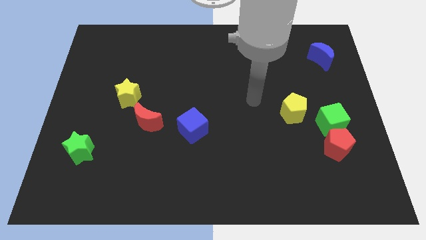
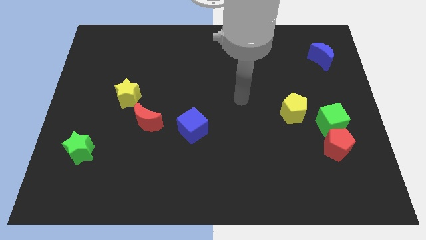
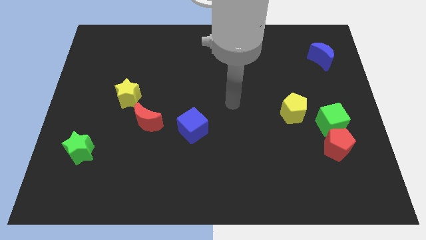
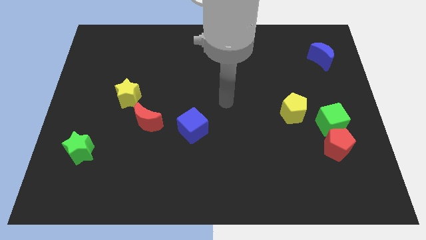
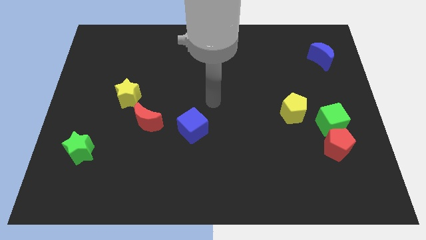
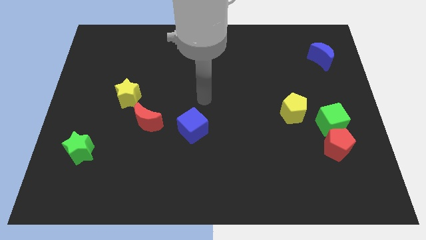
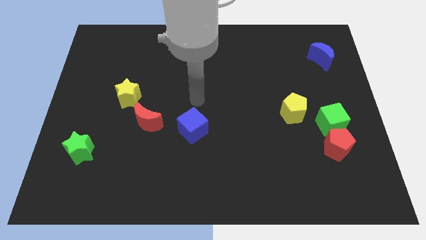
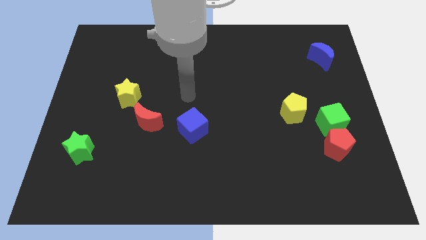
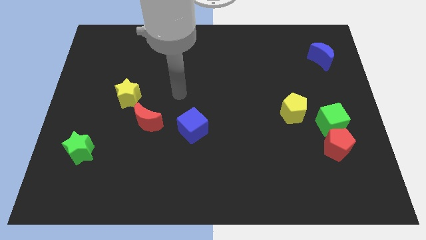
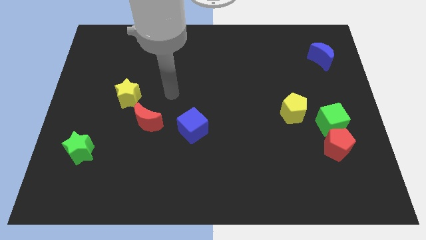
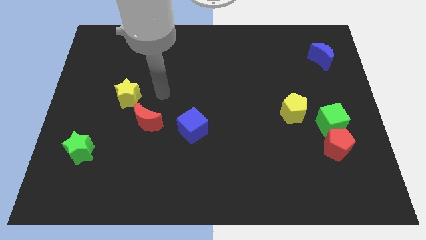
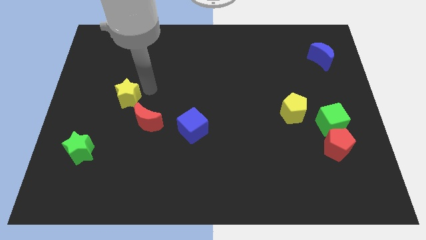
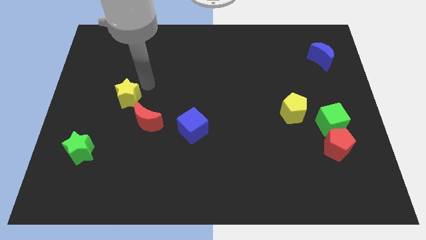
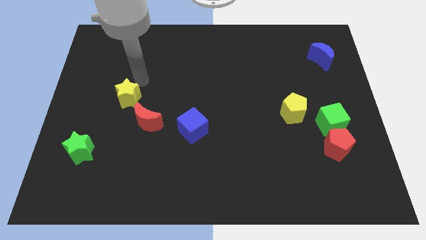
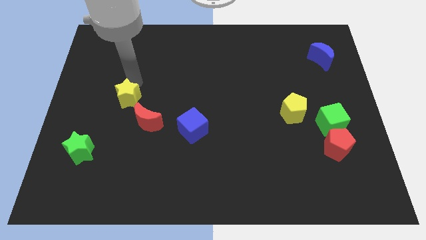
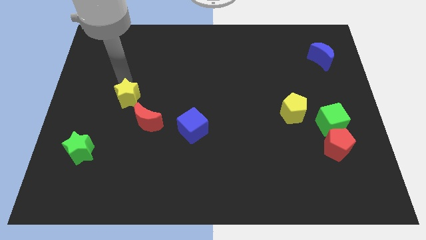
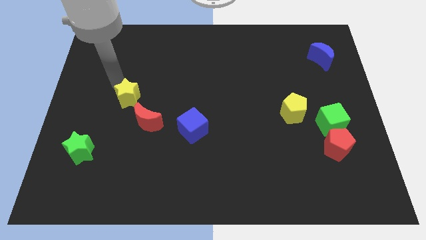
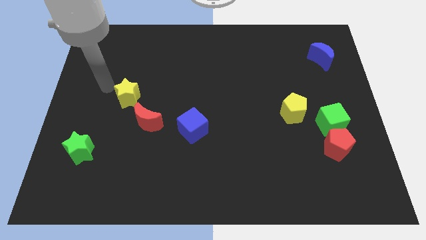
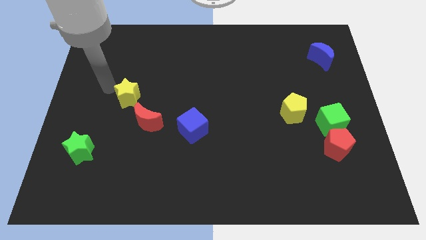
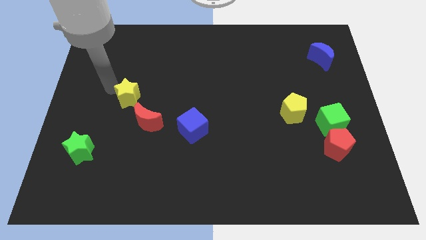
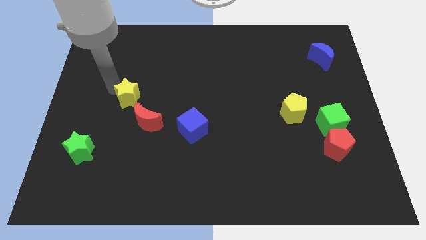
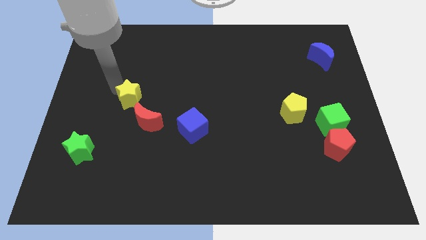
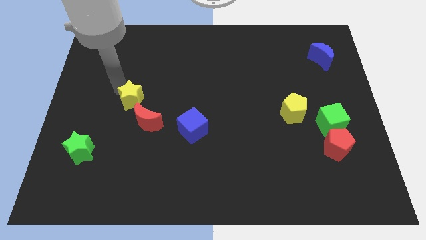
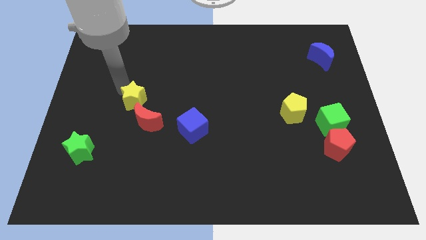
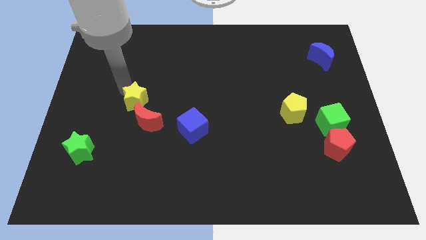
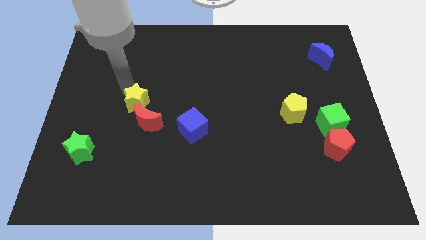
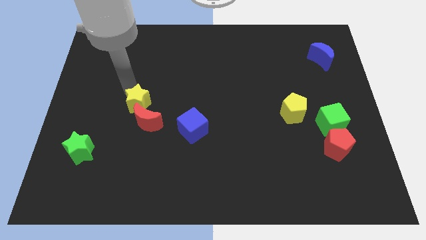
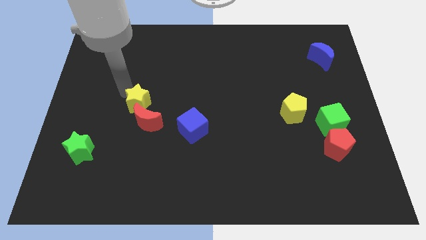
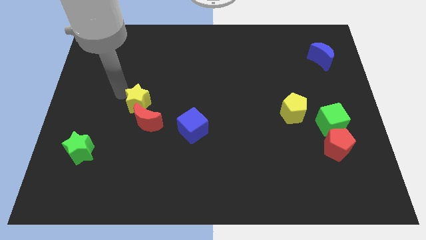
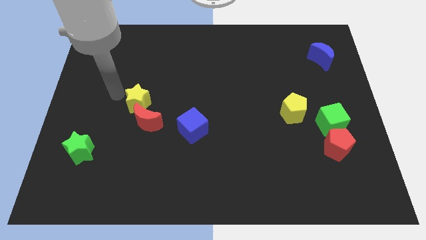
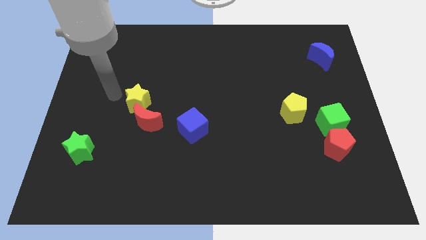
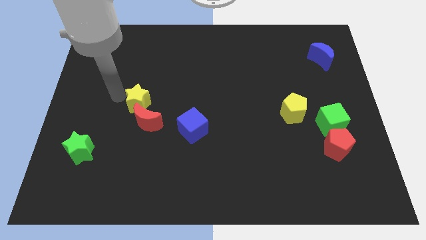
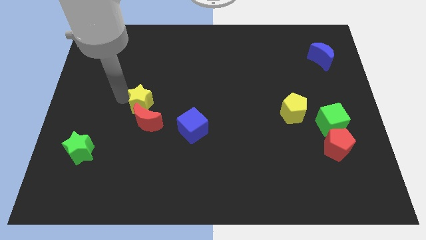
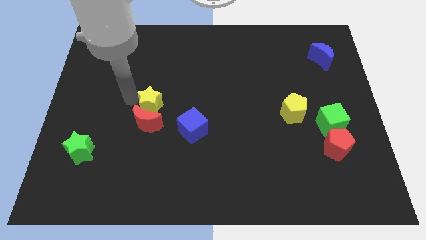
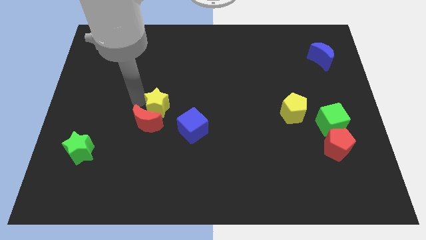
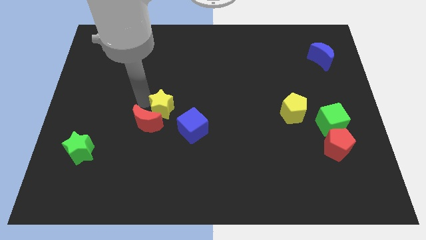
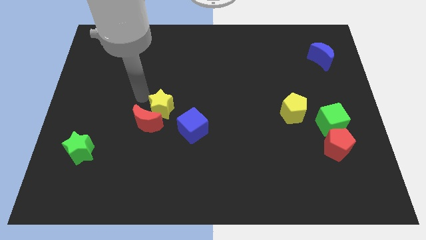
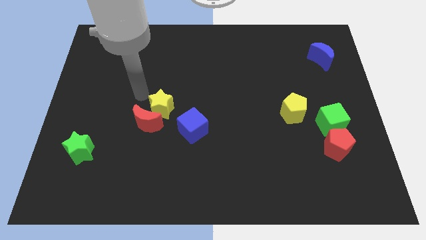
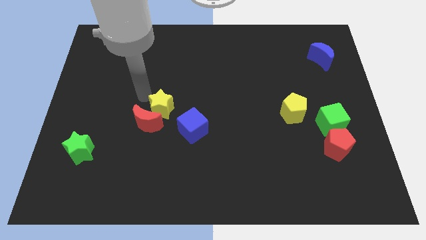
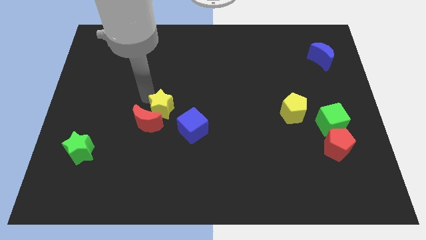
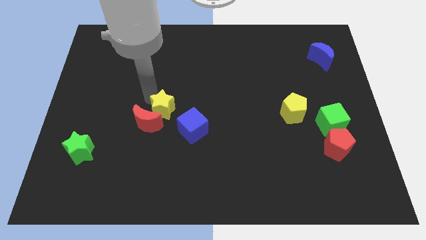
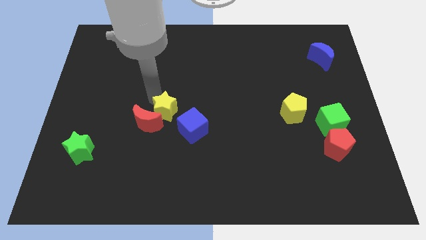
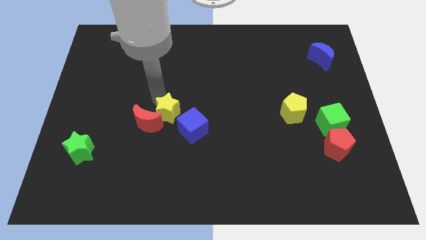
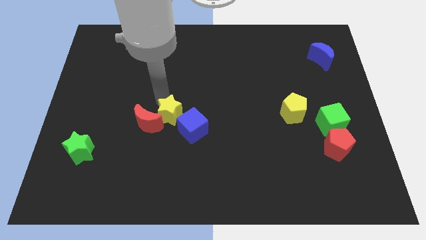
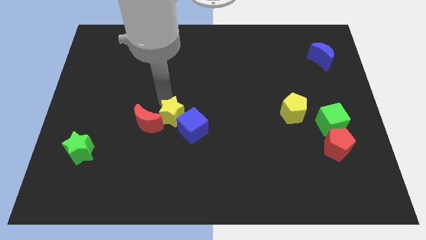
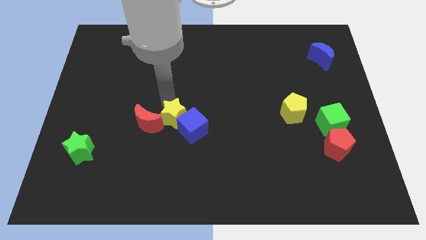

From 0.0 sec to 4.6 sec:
push the yellow star towards the blue cube

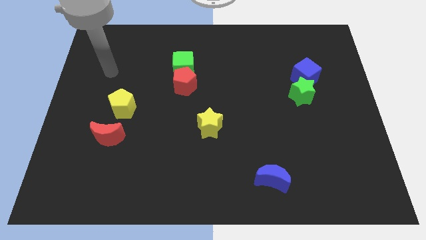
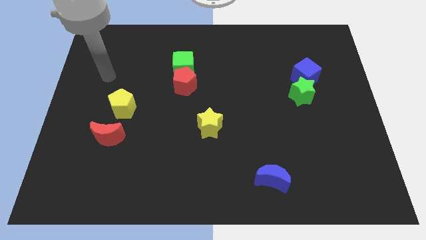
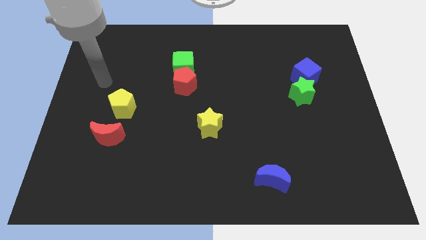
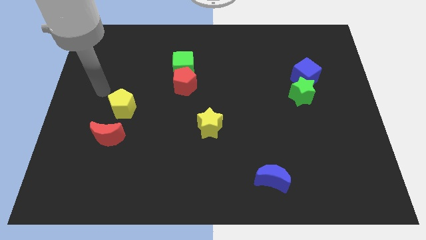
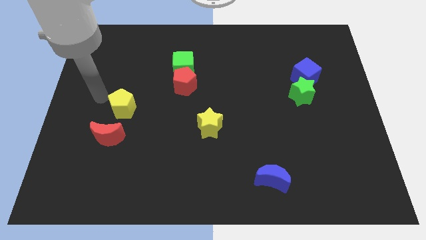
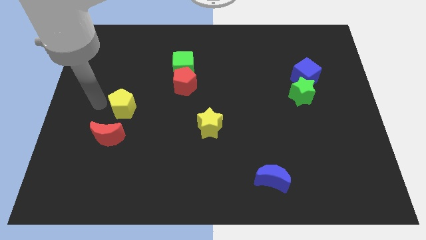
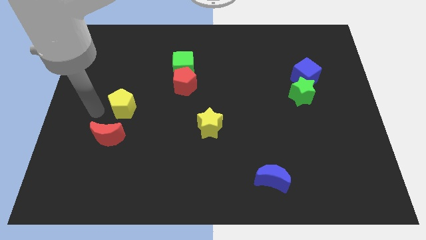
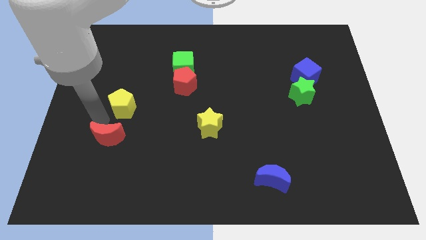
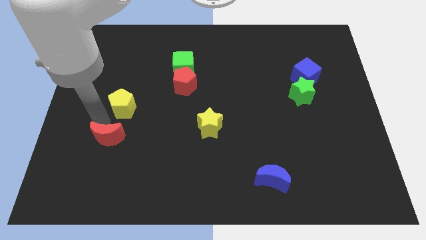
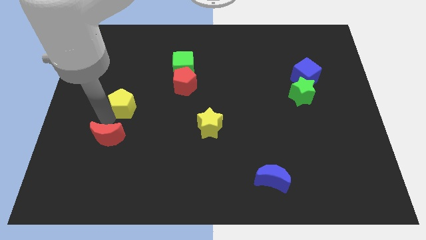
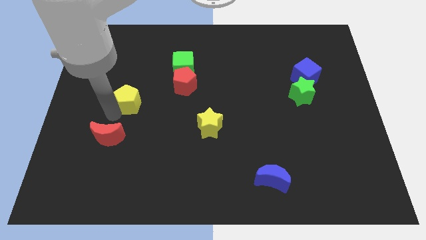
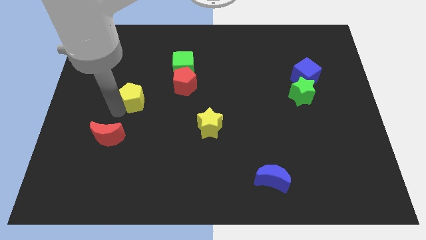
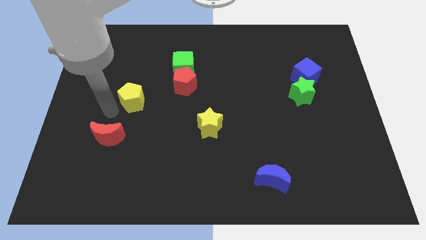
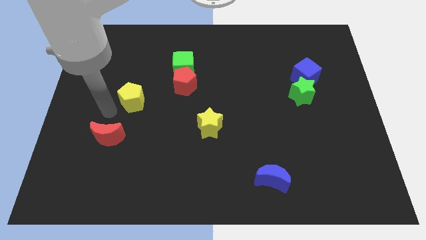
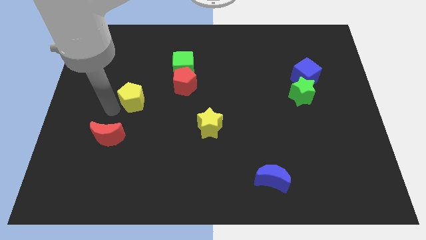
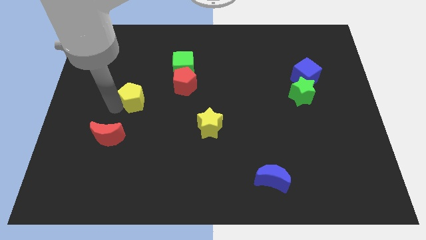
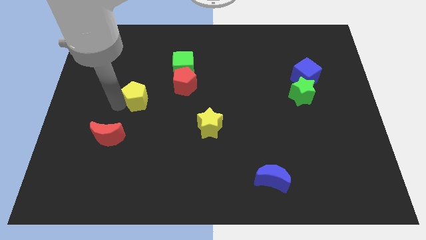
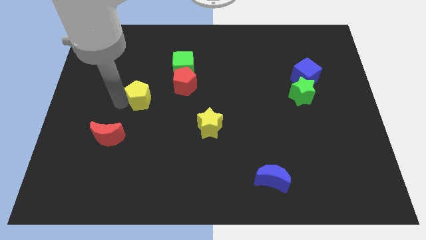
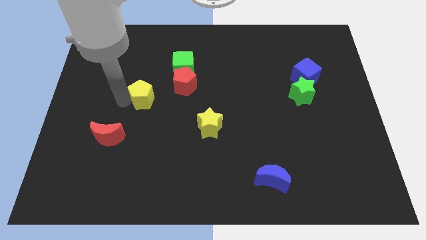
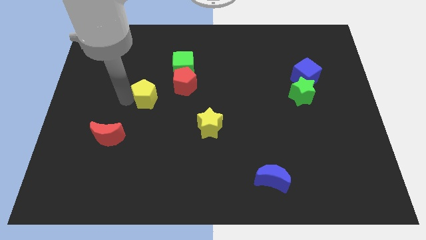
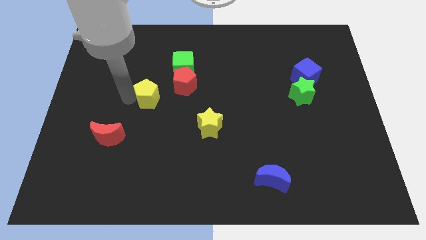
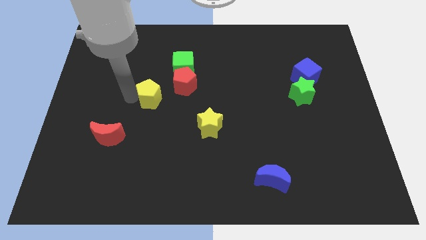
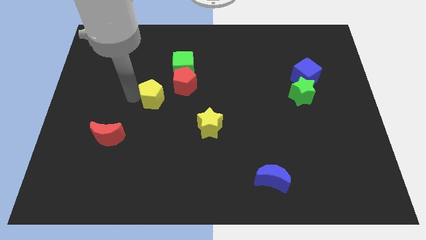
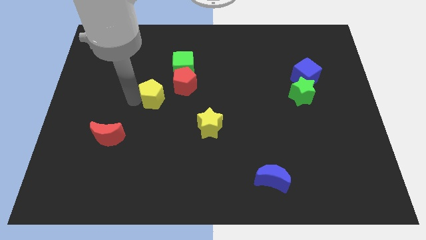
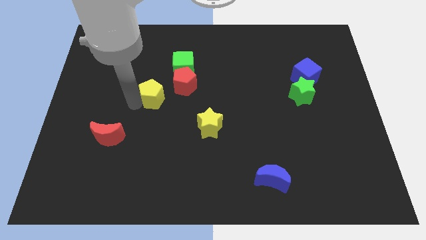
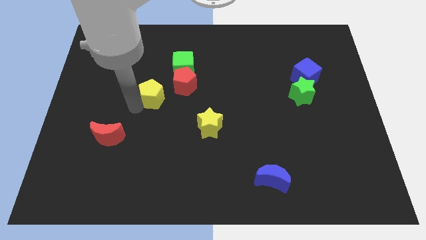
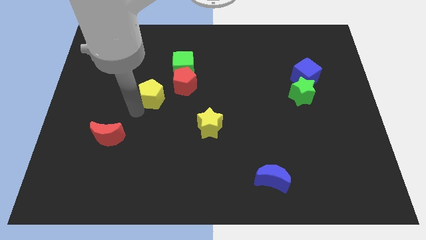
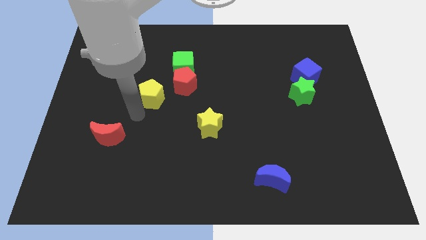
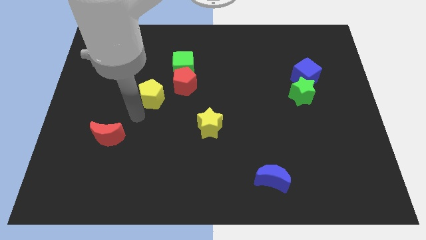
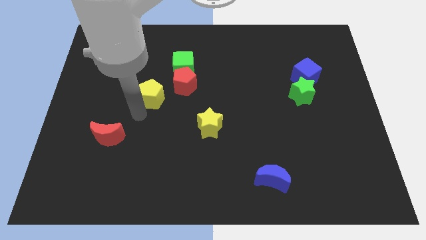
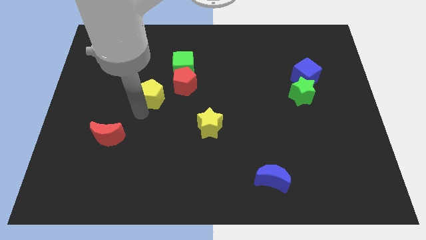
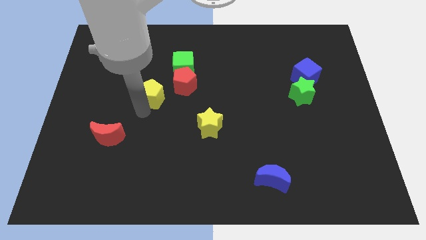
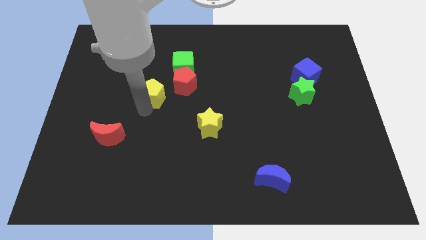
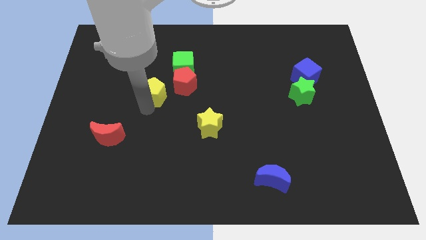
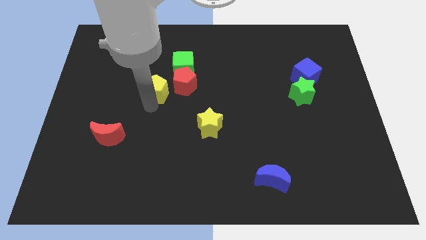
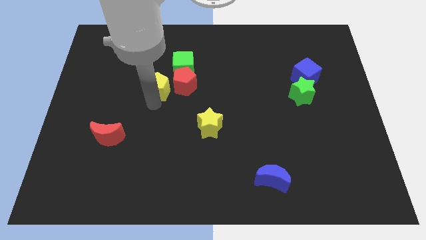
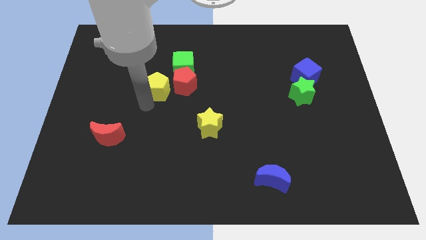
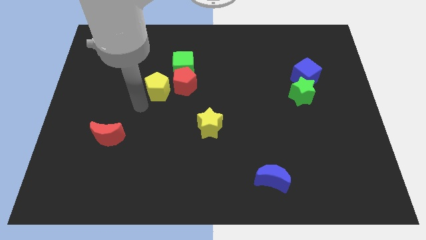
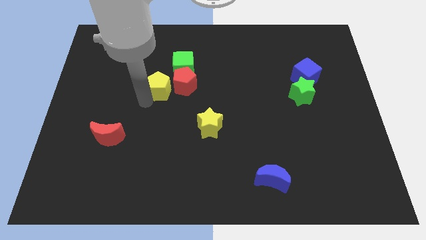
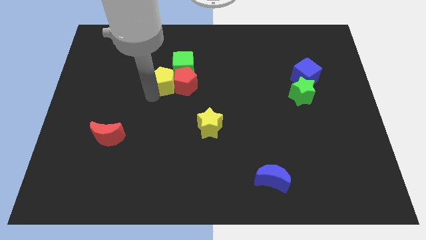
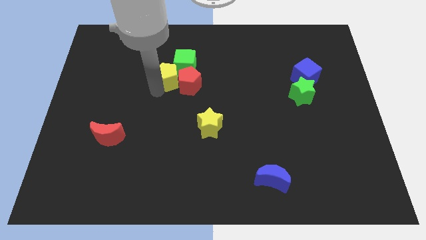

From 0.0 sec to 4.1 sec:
push the yellow pentagon close to the green cube
